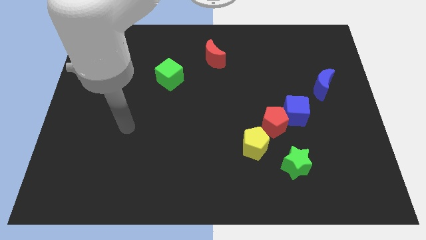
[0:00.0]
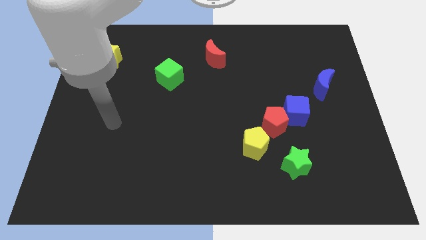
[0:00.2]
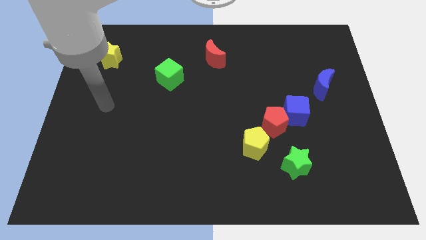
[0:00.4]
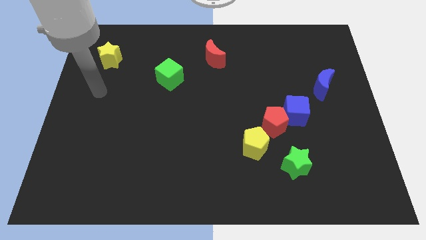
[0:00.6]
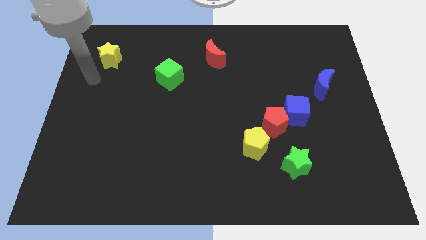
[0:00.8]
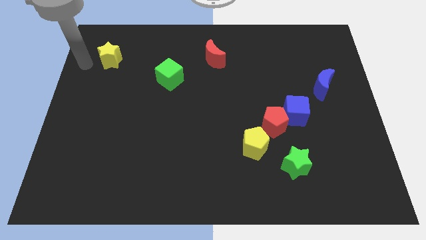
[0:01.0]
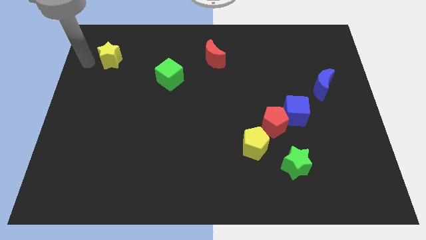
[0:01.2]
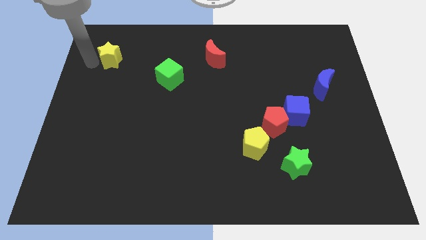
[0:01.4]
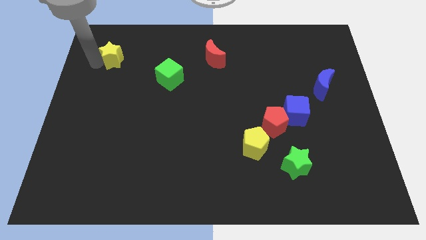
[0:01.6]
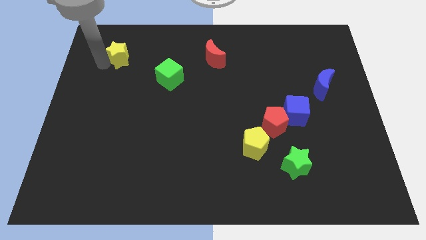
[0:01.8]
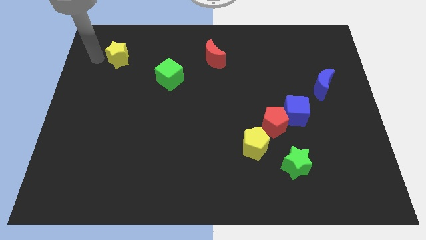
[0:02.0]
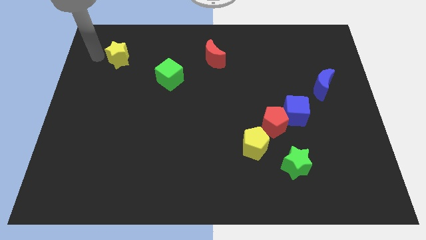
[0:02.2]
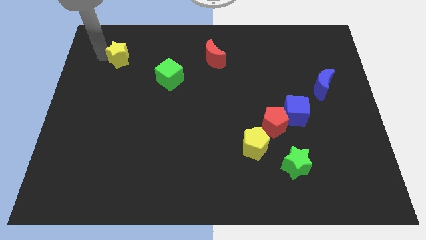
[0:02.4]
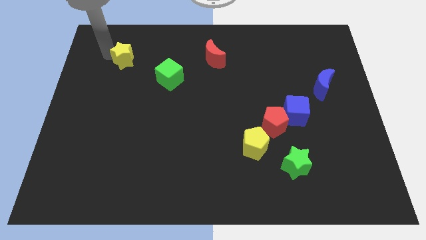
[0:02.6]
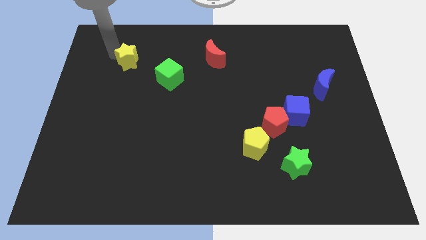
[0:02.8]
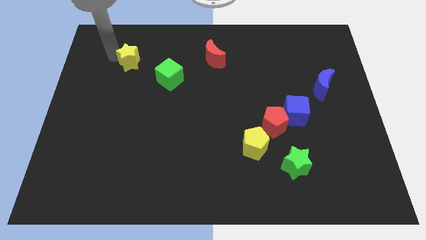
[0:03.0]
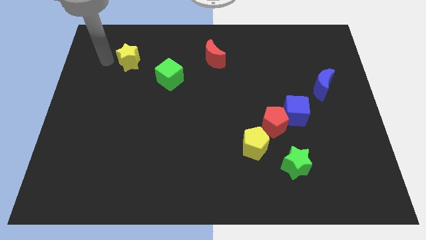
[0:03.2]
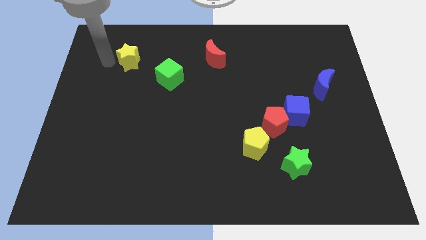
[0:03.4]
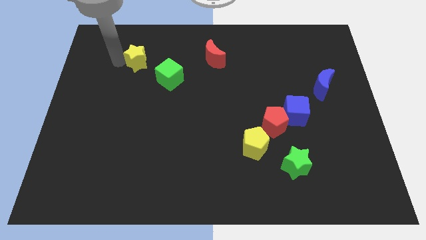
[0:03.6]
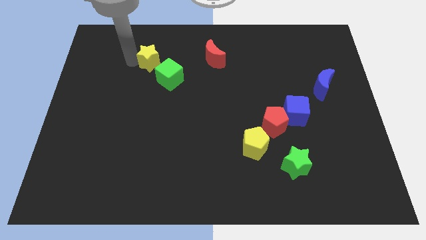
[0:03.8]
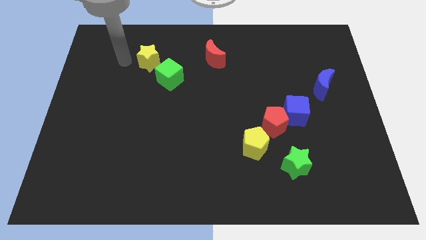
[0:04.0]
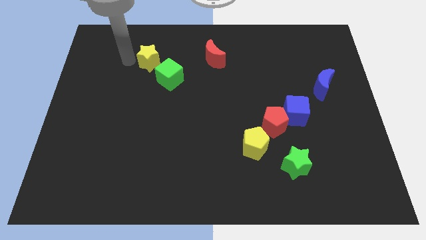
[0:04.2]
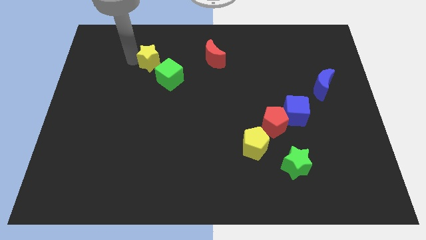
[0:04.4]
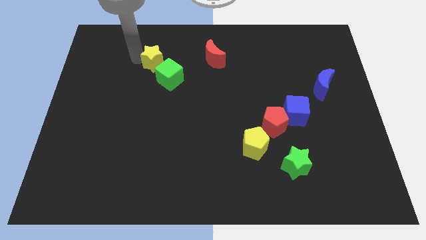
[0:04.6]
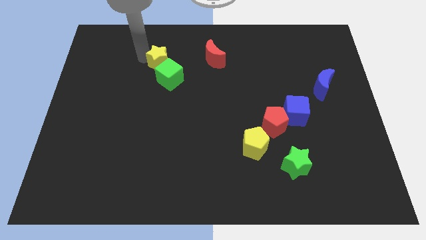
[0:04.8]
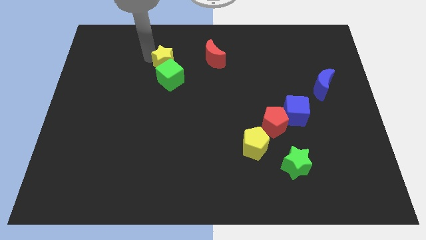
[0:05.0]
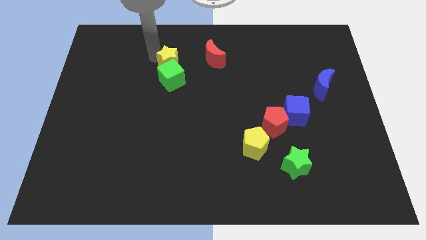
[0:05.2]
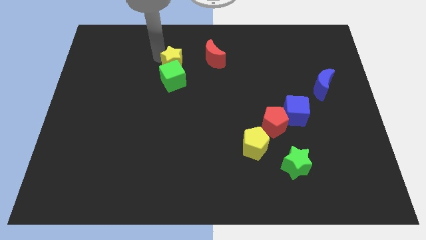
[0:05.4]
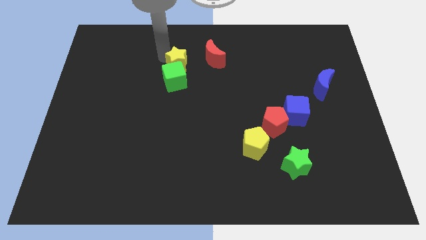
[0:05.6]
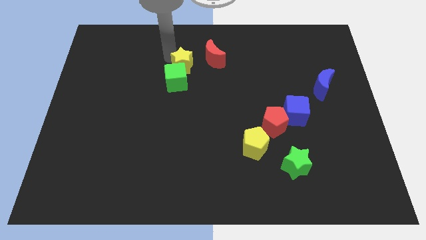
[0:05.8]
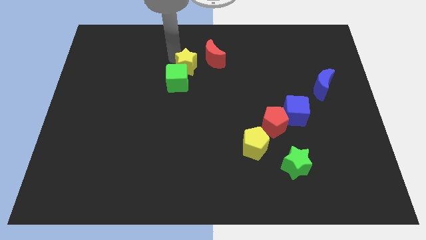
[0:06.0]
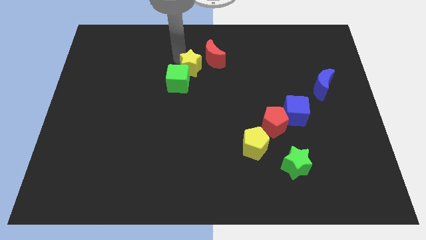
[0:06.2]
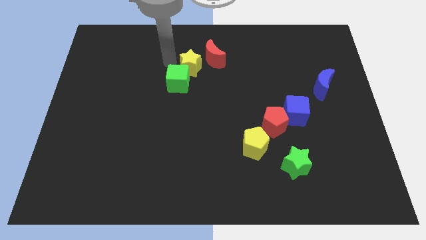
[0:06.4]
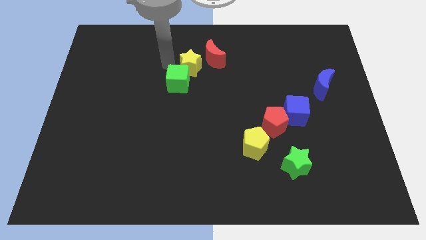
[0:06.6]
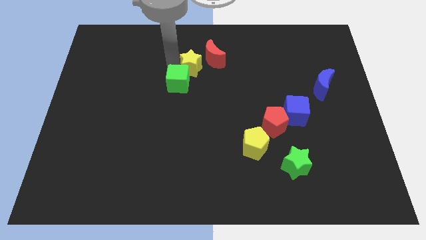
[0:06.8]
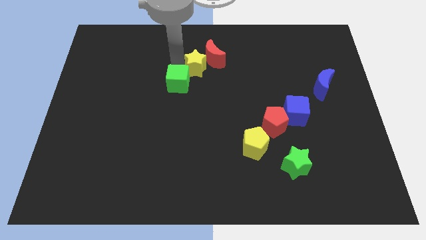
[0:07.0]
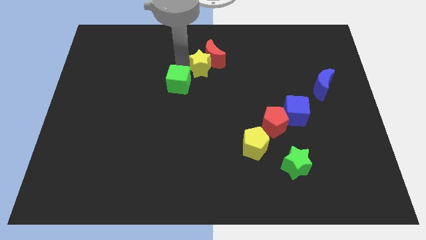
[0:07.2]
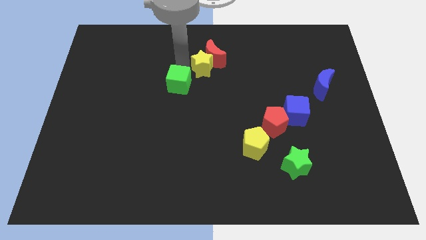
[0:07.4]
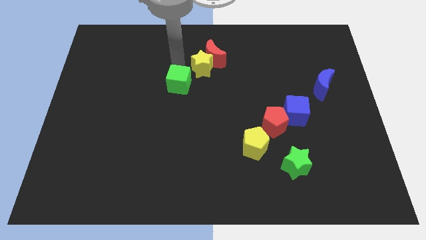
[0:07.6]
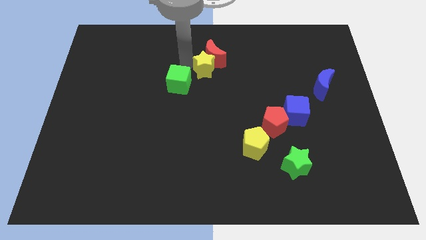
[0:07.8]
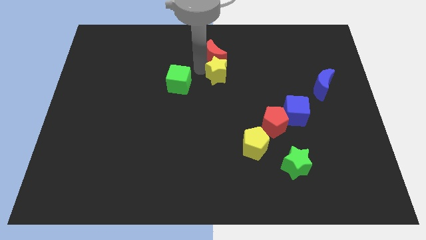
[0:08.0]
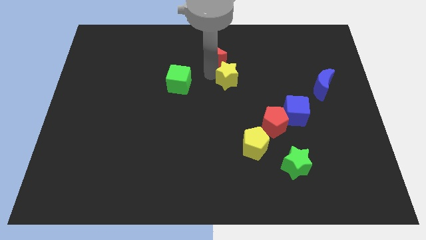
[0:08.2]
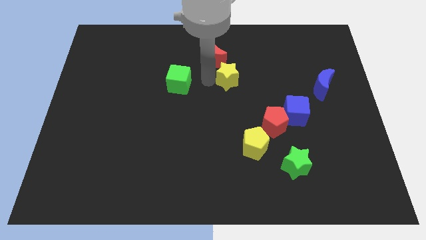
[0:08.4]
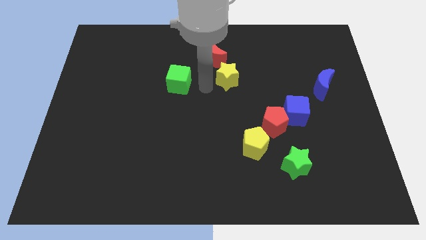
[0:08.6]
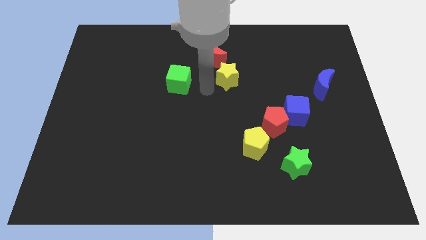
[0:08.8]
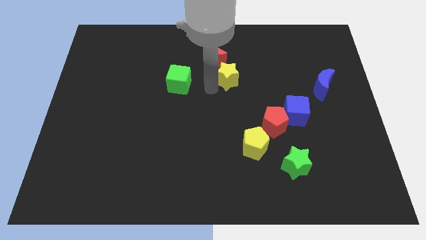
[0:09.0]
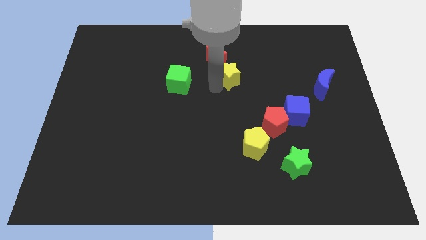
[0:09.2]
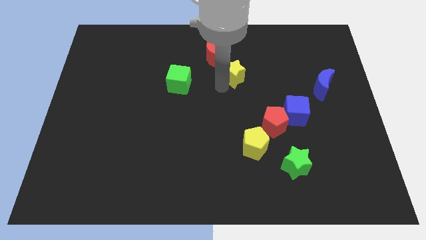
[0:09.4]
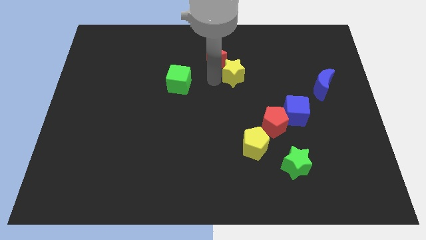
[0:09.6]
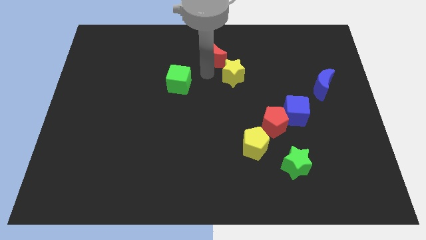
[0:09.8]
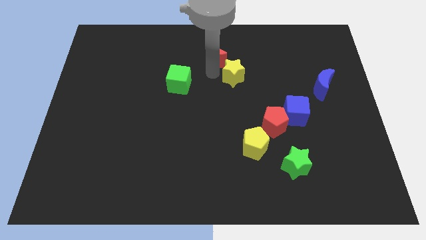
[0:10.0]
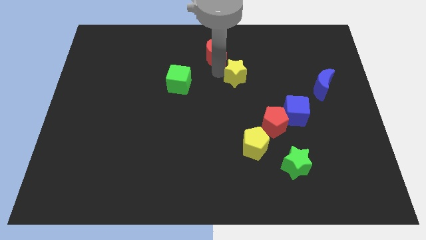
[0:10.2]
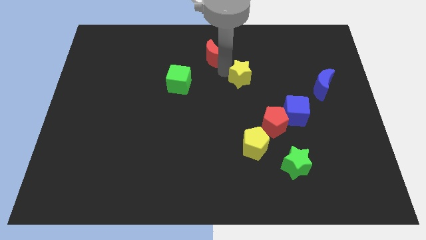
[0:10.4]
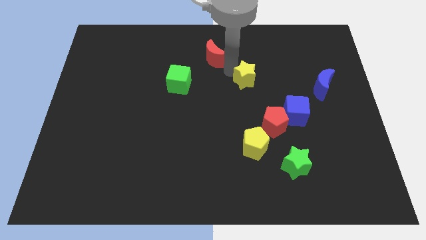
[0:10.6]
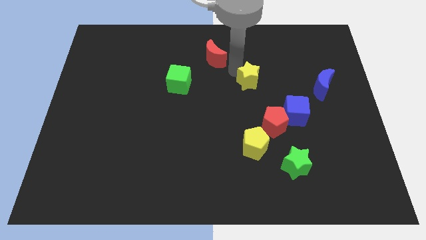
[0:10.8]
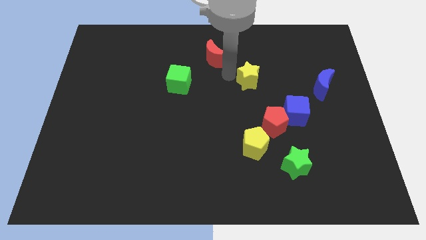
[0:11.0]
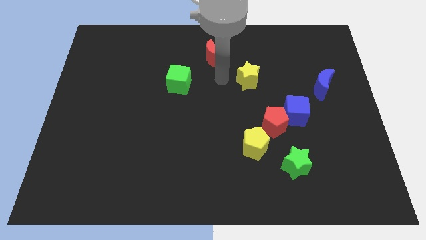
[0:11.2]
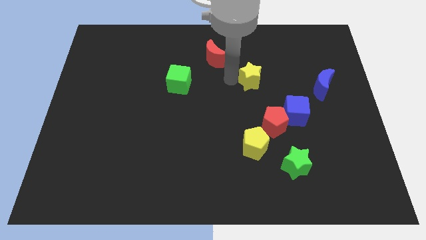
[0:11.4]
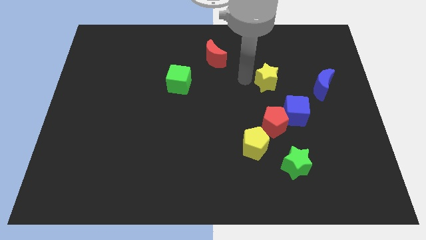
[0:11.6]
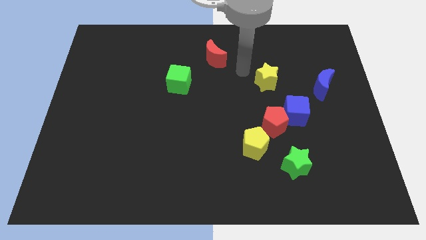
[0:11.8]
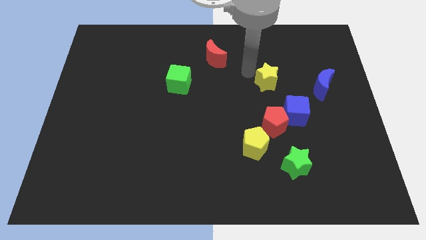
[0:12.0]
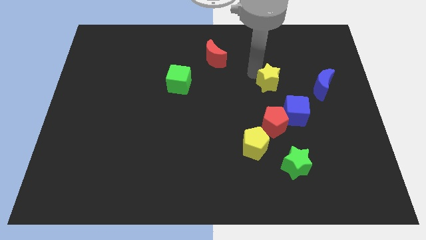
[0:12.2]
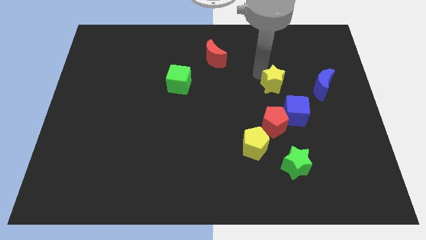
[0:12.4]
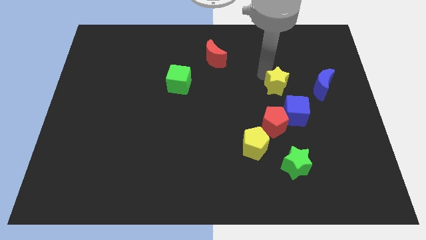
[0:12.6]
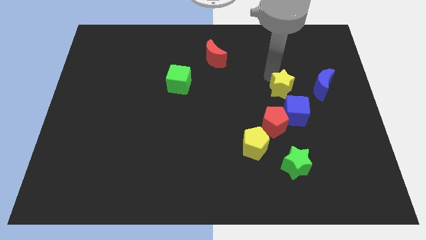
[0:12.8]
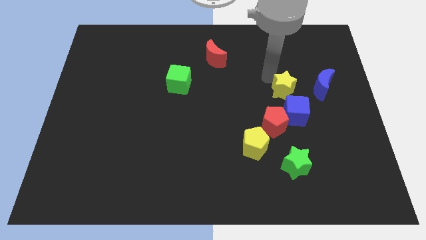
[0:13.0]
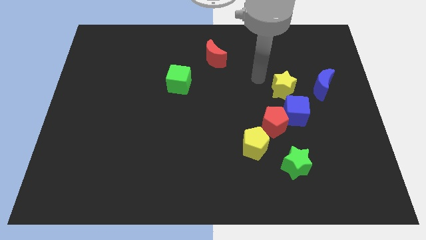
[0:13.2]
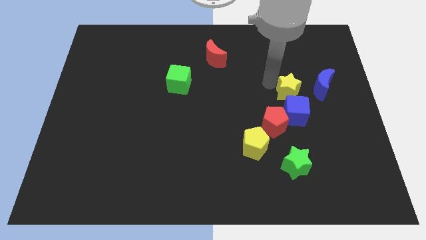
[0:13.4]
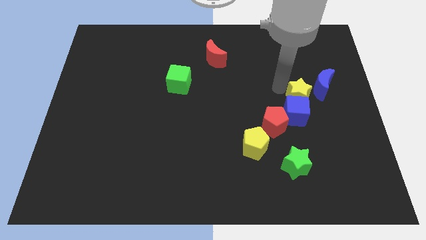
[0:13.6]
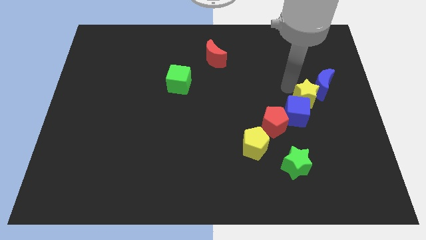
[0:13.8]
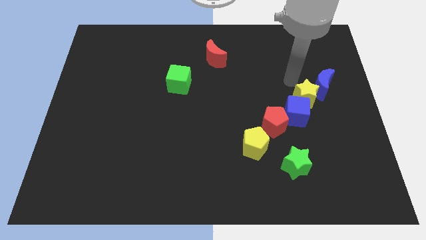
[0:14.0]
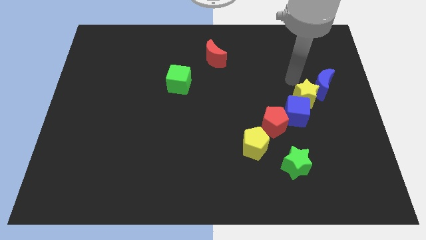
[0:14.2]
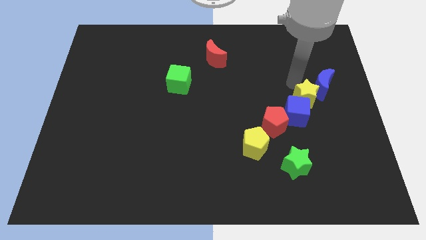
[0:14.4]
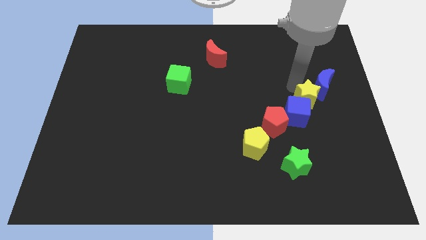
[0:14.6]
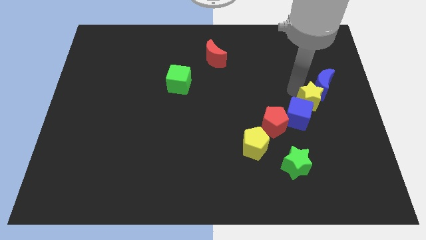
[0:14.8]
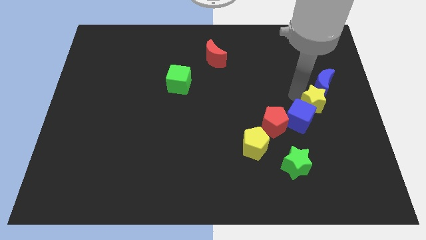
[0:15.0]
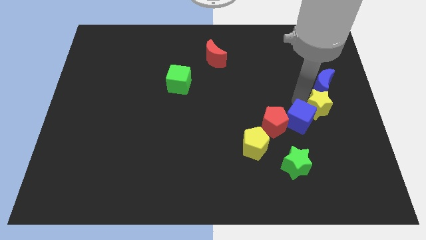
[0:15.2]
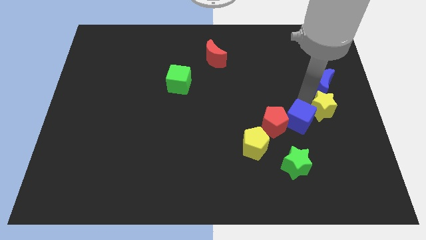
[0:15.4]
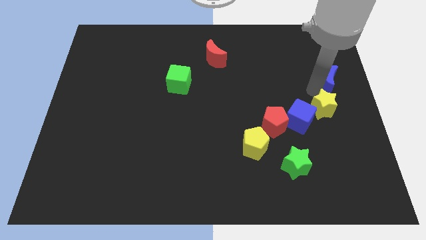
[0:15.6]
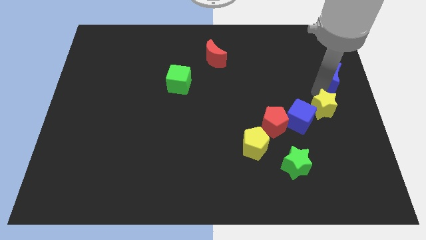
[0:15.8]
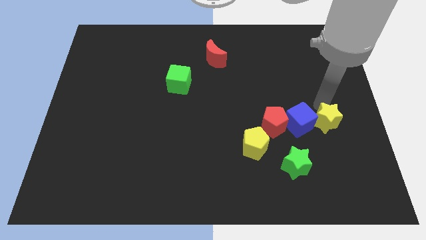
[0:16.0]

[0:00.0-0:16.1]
push the yellow star to the bottom right side of the blue cube

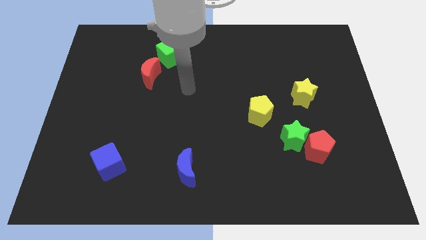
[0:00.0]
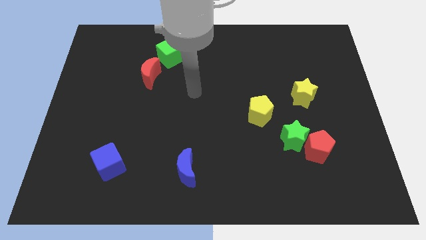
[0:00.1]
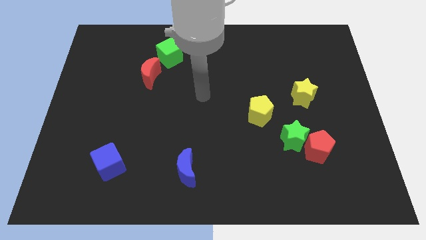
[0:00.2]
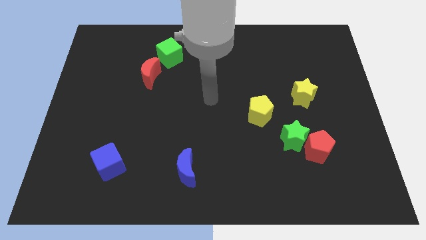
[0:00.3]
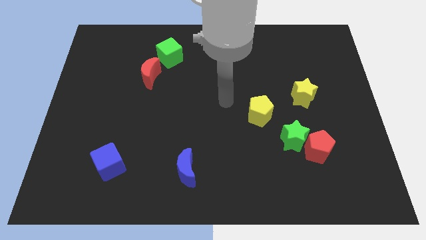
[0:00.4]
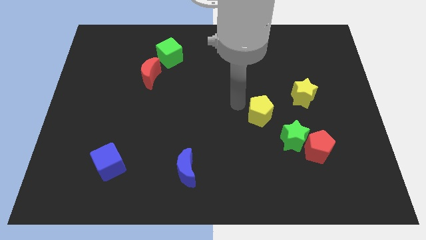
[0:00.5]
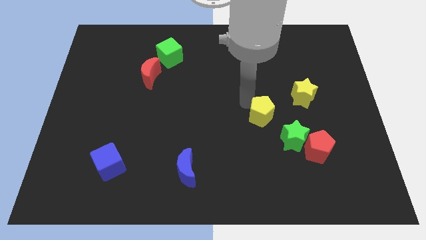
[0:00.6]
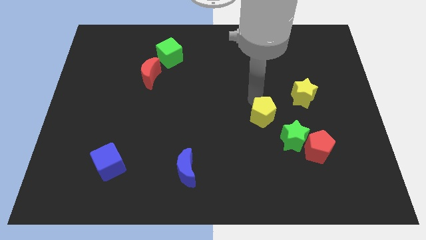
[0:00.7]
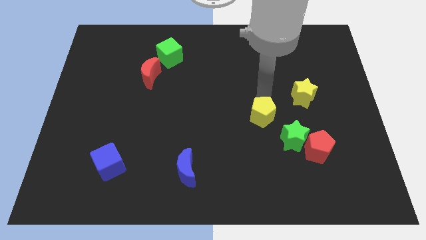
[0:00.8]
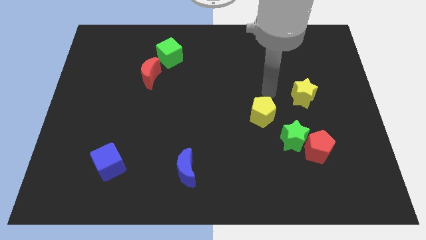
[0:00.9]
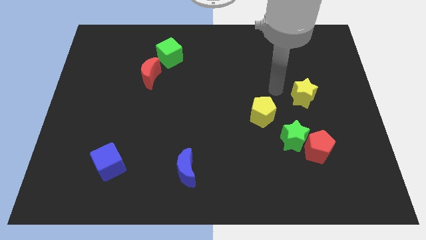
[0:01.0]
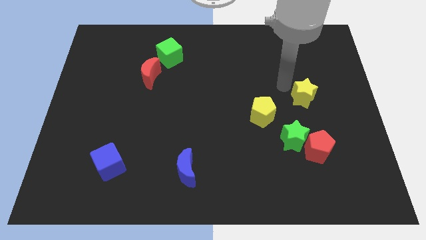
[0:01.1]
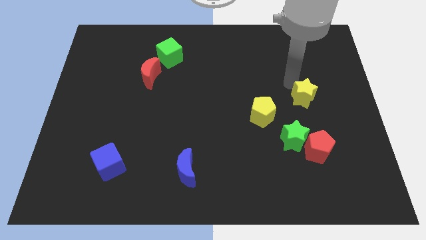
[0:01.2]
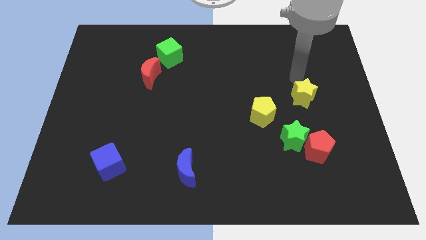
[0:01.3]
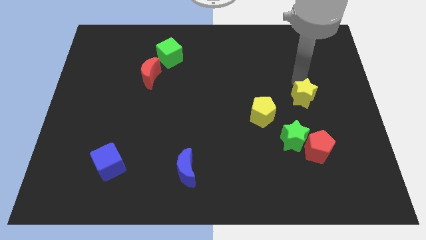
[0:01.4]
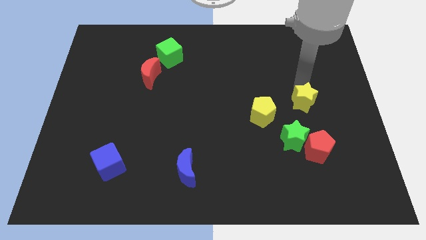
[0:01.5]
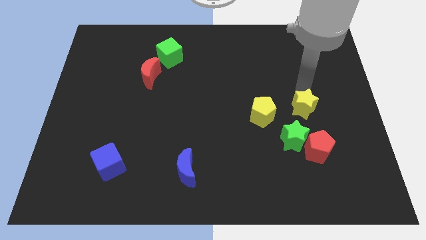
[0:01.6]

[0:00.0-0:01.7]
slide the yellow star to the top right of the green star
